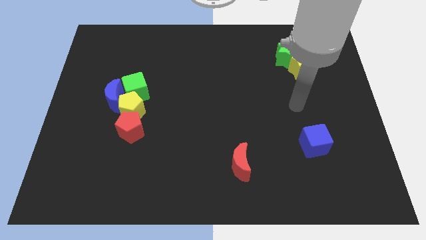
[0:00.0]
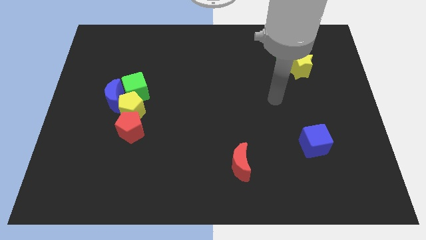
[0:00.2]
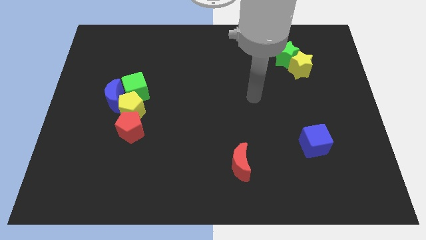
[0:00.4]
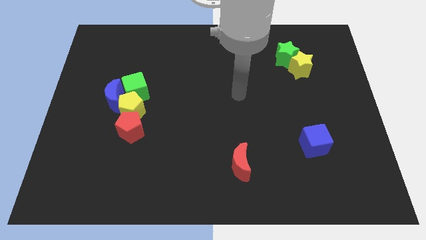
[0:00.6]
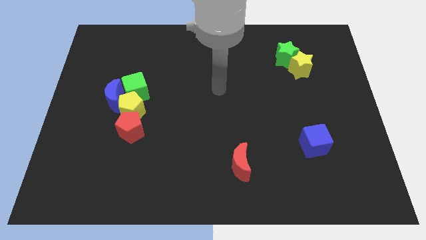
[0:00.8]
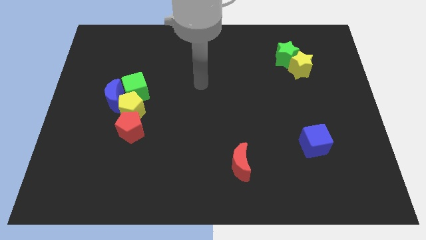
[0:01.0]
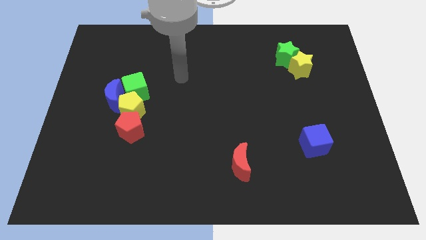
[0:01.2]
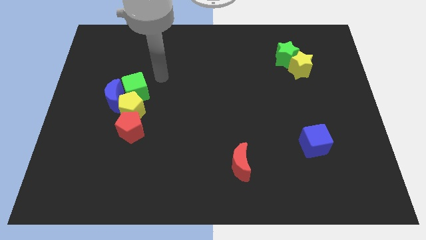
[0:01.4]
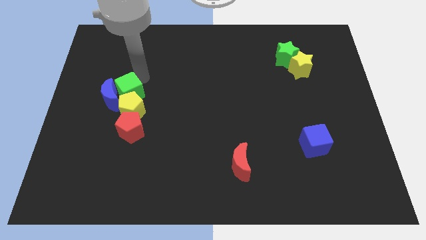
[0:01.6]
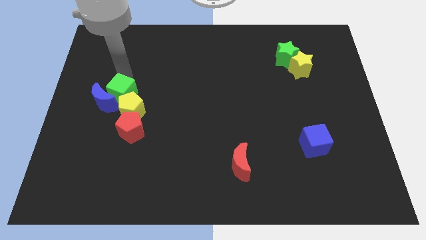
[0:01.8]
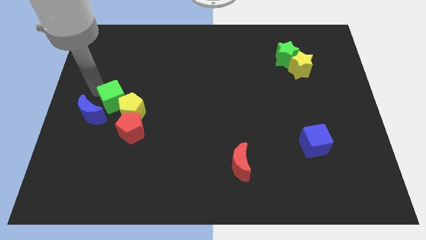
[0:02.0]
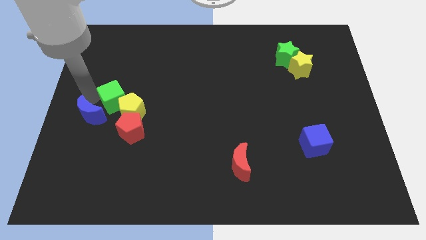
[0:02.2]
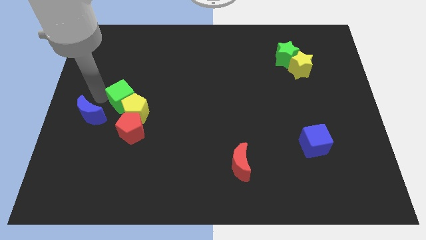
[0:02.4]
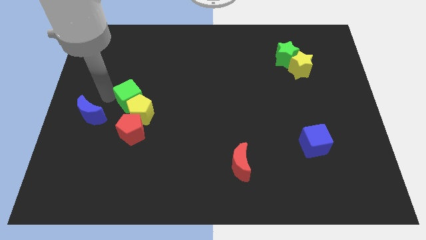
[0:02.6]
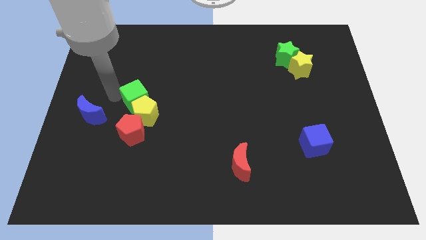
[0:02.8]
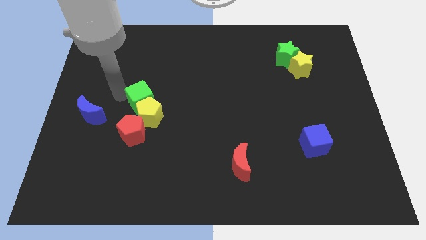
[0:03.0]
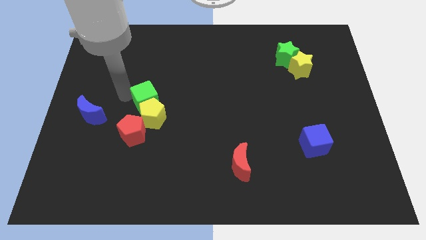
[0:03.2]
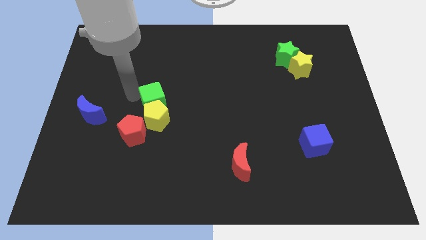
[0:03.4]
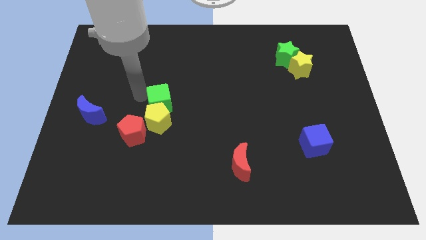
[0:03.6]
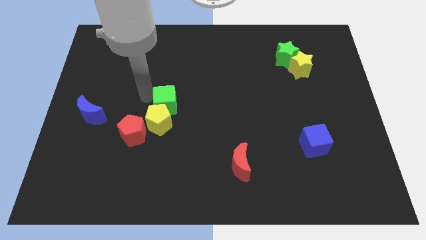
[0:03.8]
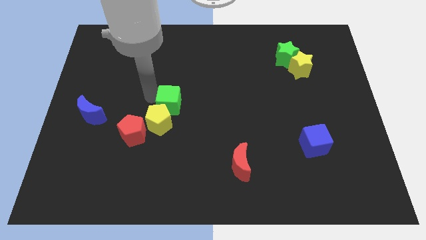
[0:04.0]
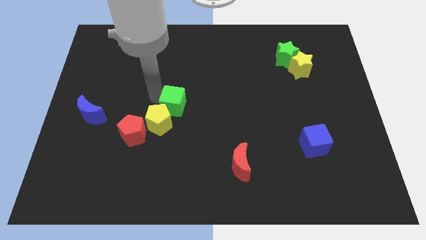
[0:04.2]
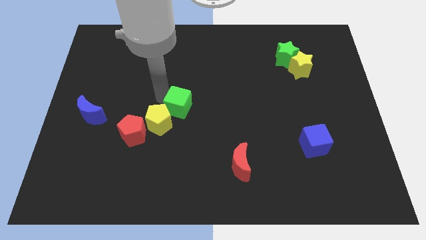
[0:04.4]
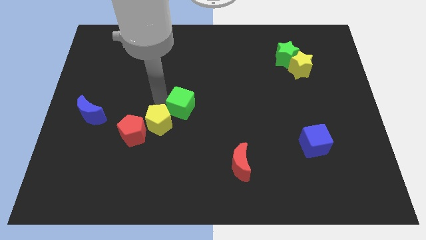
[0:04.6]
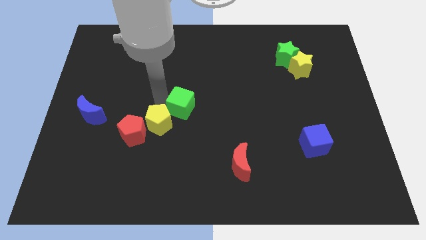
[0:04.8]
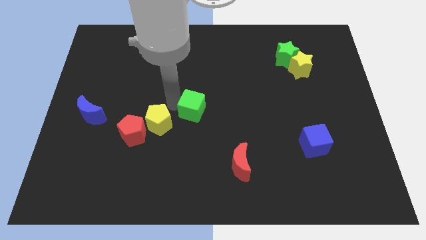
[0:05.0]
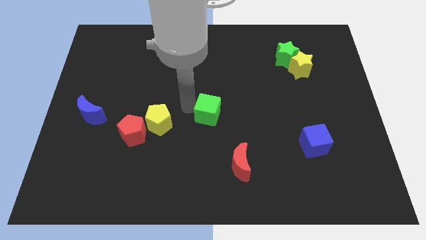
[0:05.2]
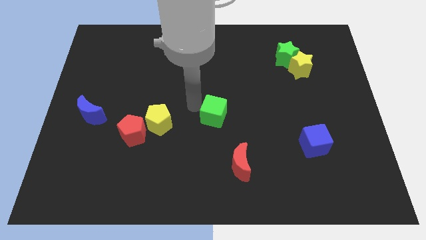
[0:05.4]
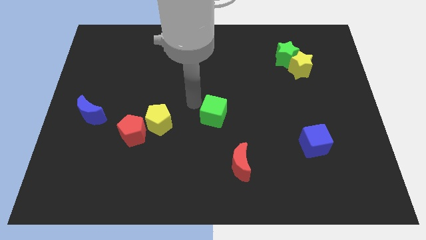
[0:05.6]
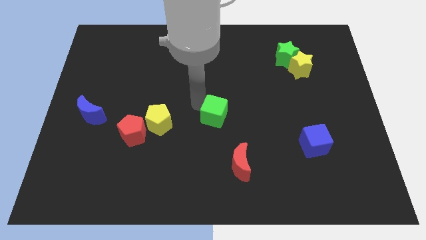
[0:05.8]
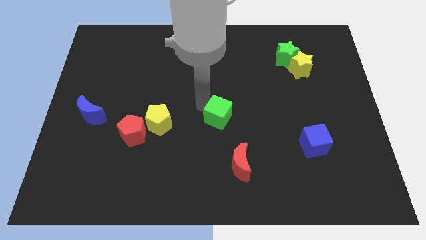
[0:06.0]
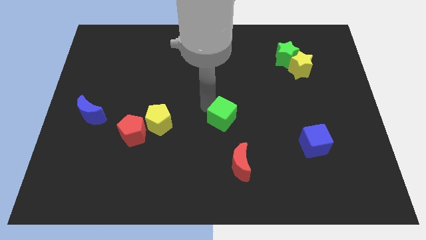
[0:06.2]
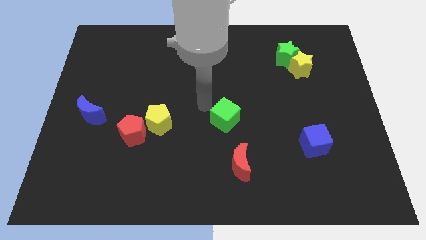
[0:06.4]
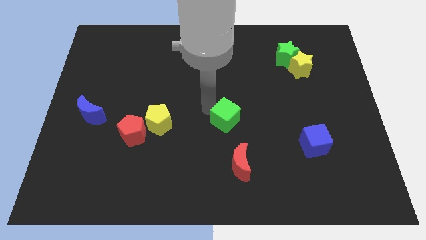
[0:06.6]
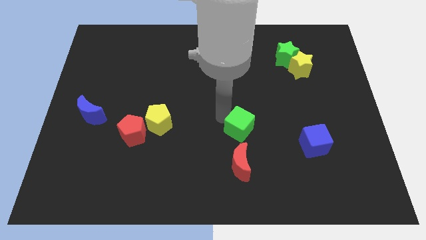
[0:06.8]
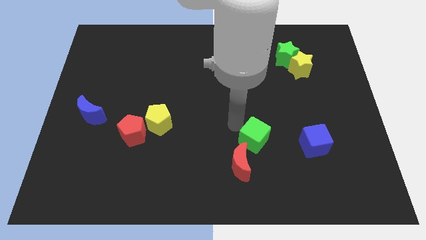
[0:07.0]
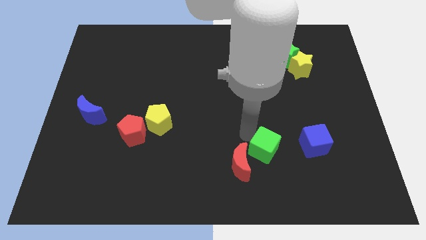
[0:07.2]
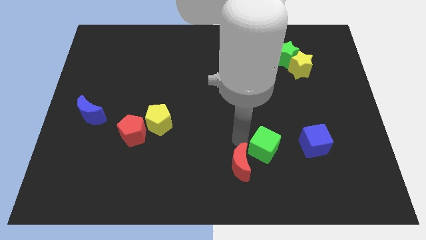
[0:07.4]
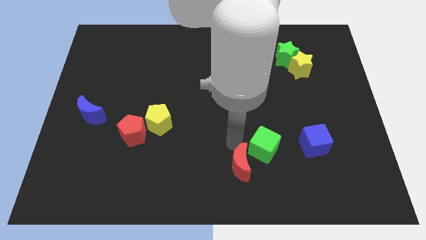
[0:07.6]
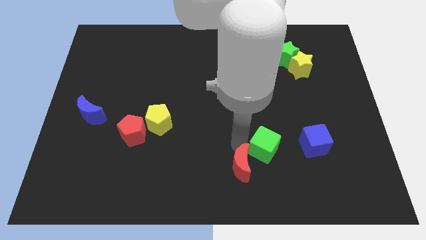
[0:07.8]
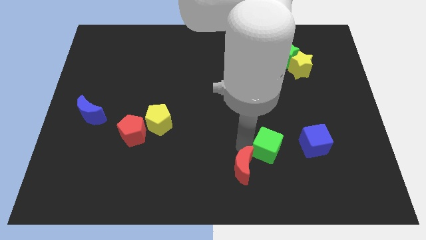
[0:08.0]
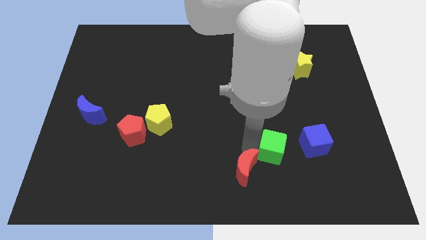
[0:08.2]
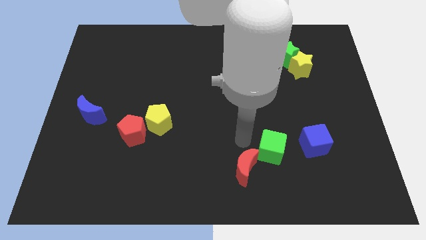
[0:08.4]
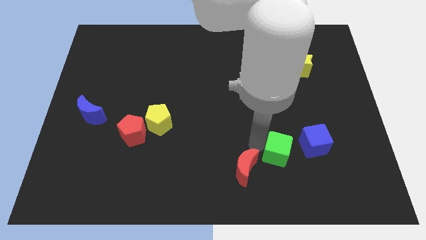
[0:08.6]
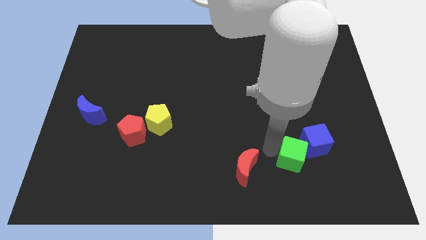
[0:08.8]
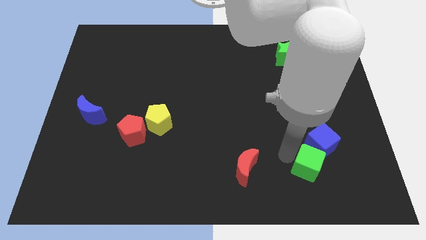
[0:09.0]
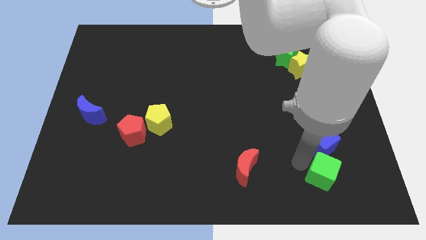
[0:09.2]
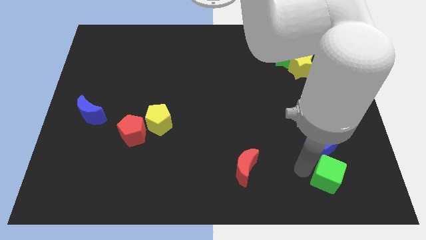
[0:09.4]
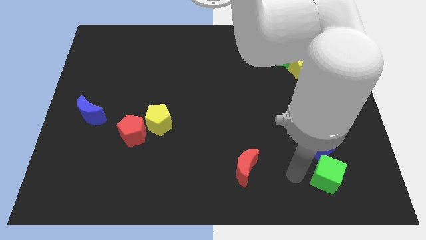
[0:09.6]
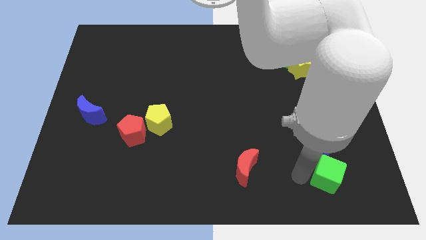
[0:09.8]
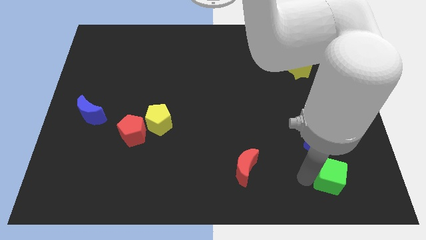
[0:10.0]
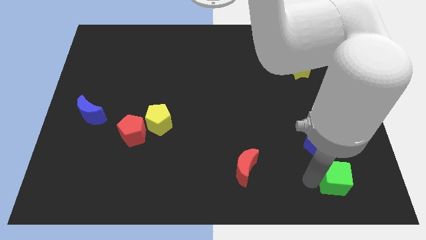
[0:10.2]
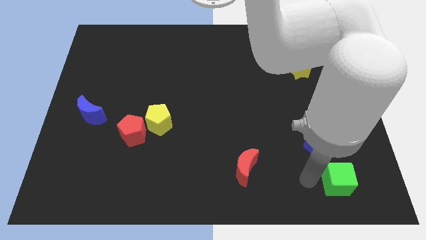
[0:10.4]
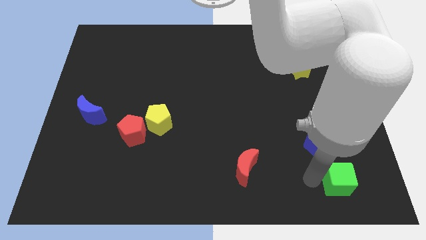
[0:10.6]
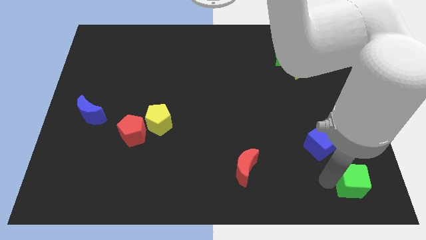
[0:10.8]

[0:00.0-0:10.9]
push the green cube to the bottom right corner
